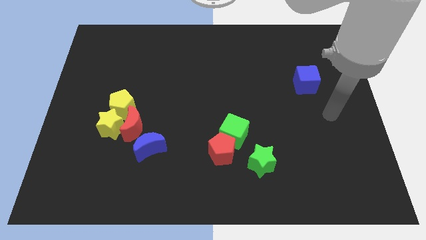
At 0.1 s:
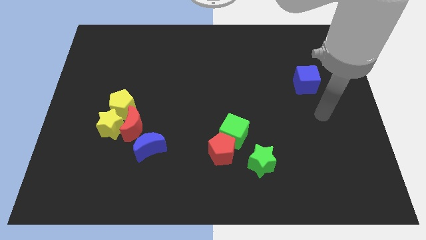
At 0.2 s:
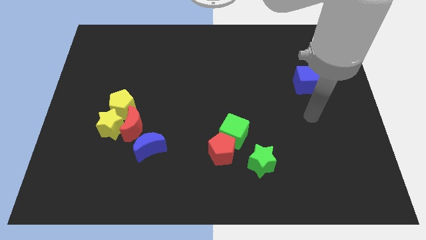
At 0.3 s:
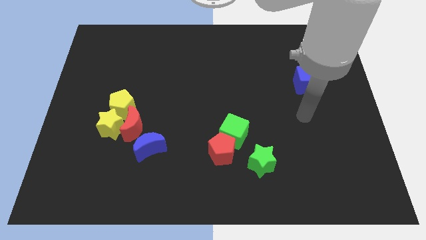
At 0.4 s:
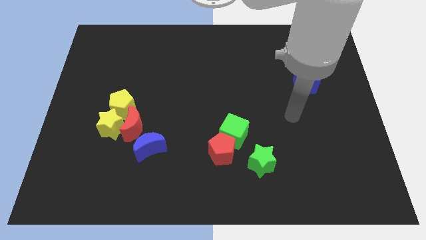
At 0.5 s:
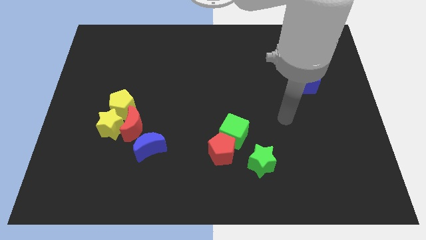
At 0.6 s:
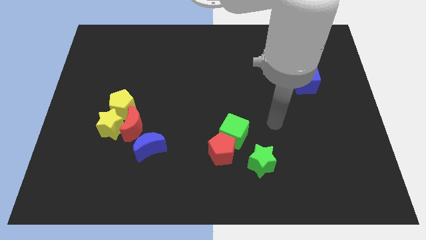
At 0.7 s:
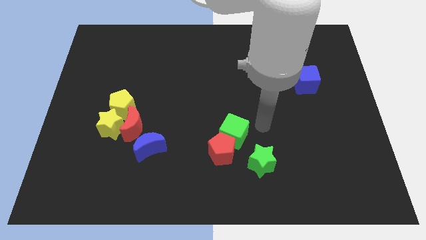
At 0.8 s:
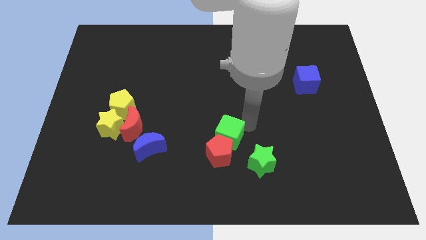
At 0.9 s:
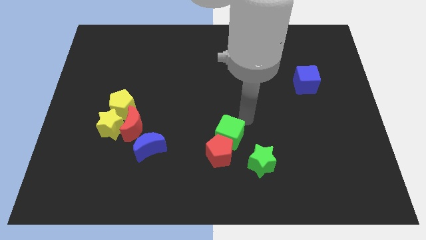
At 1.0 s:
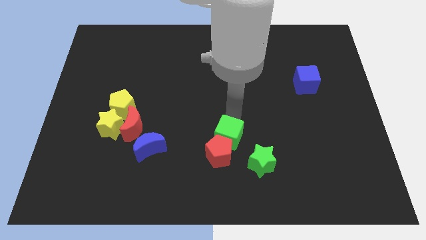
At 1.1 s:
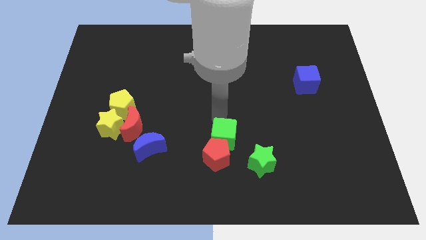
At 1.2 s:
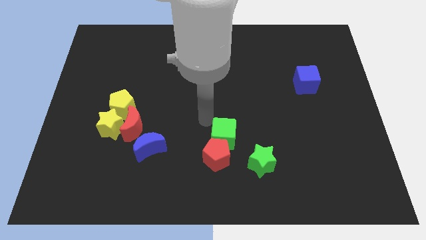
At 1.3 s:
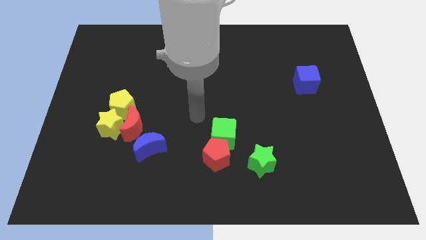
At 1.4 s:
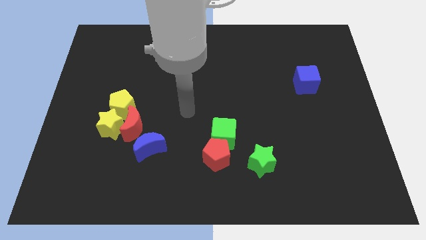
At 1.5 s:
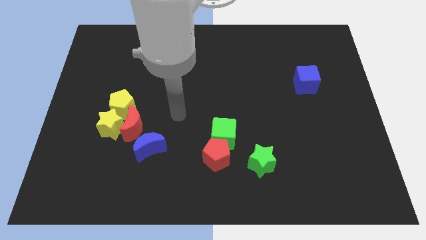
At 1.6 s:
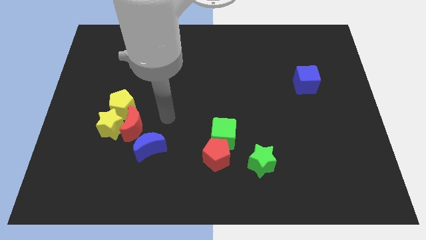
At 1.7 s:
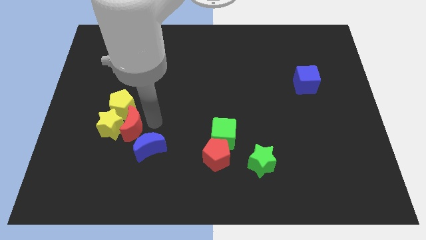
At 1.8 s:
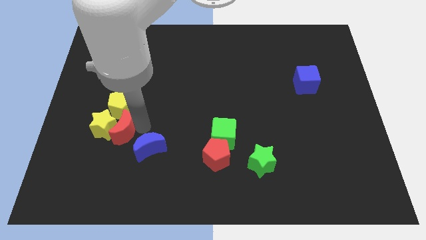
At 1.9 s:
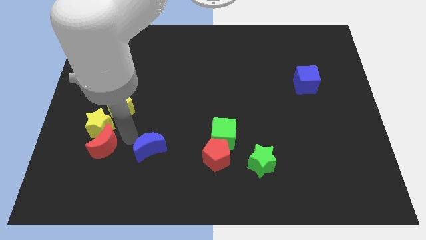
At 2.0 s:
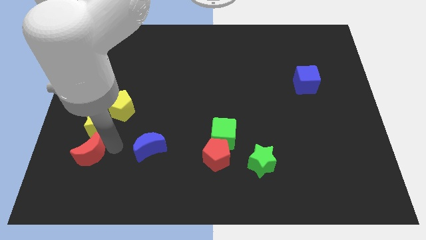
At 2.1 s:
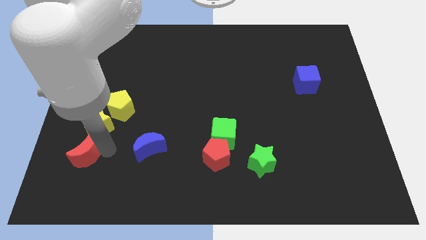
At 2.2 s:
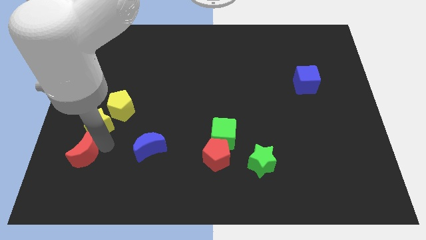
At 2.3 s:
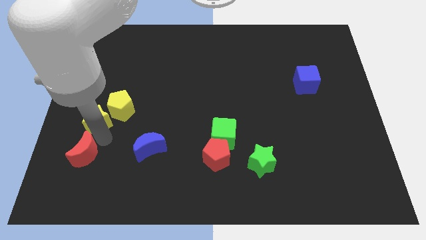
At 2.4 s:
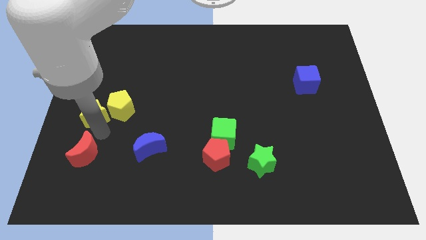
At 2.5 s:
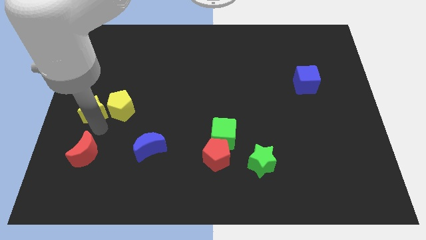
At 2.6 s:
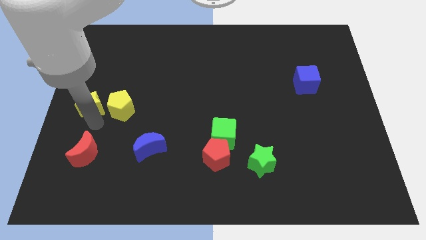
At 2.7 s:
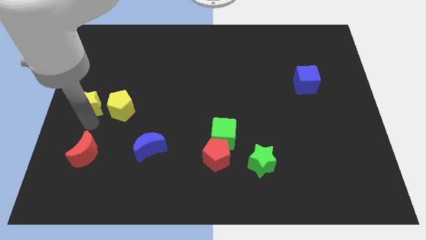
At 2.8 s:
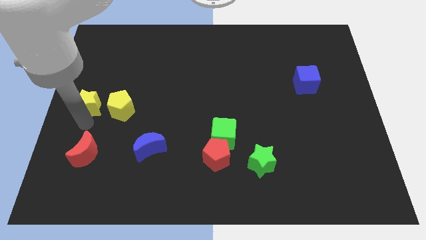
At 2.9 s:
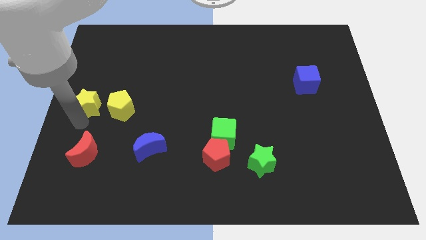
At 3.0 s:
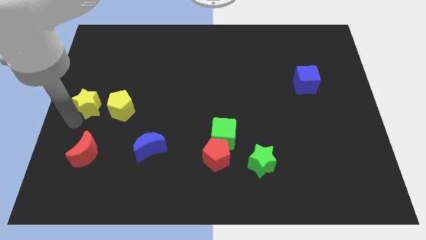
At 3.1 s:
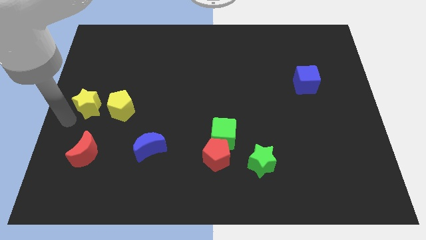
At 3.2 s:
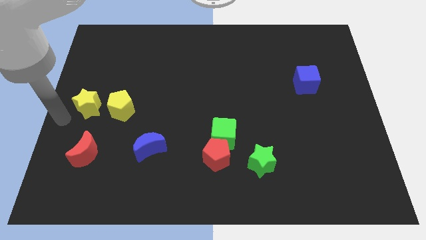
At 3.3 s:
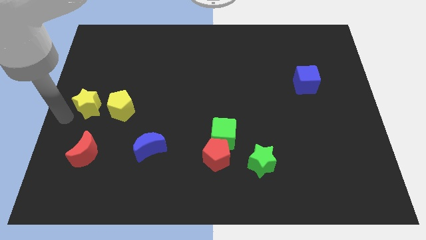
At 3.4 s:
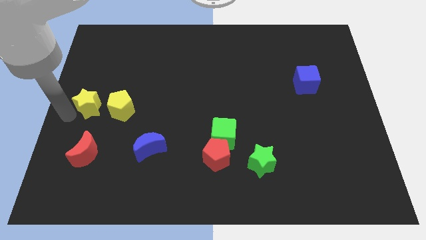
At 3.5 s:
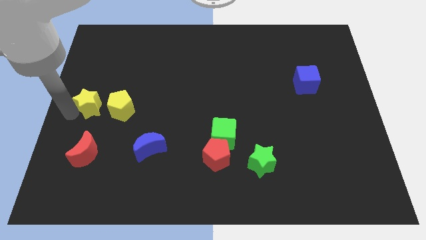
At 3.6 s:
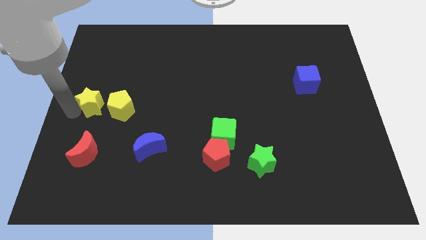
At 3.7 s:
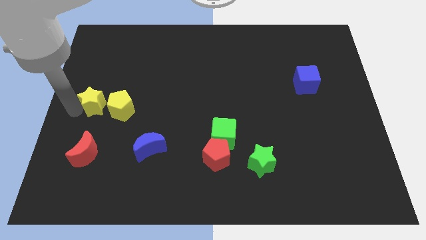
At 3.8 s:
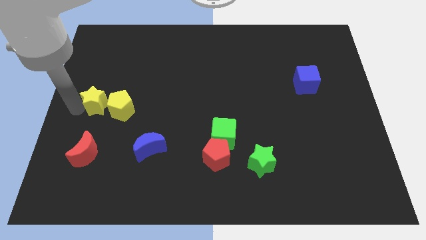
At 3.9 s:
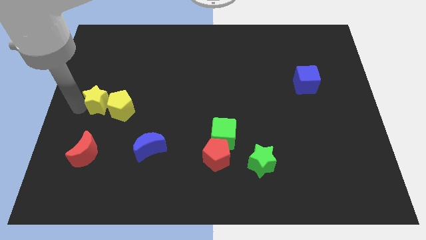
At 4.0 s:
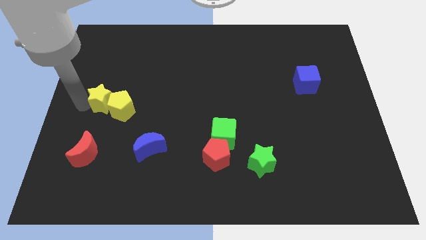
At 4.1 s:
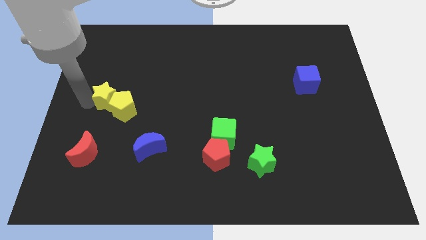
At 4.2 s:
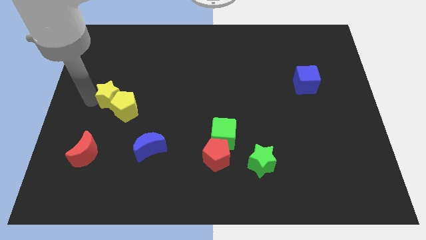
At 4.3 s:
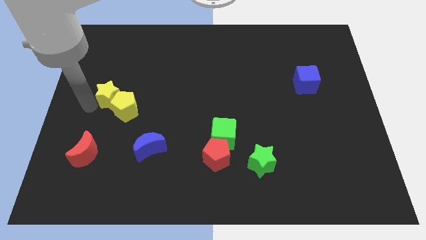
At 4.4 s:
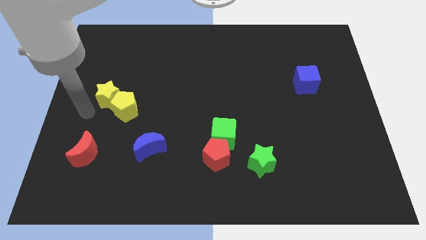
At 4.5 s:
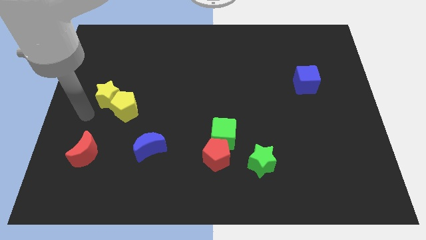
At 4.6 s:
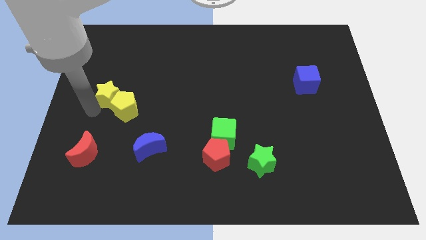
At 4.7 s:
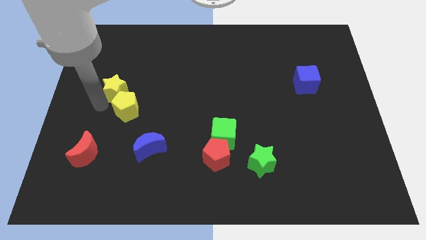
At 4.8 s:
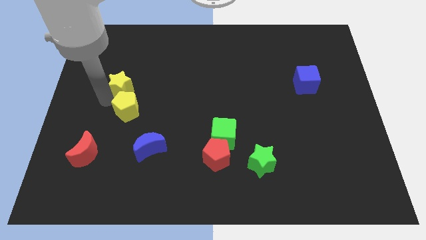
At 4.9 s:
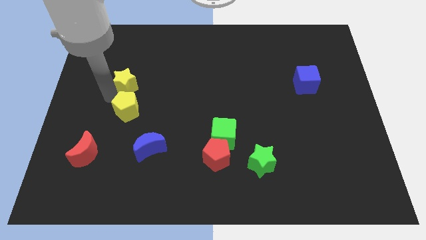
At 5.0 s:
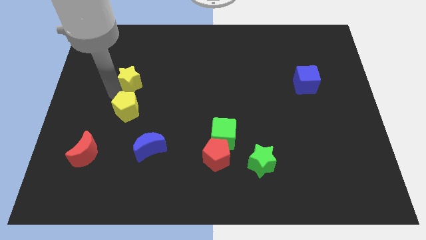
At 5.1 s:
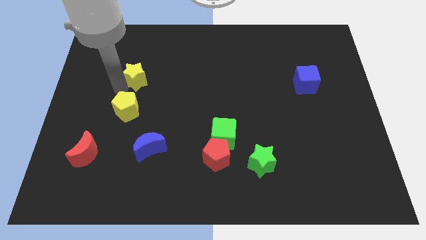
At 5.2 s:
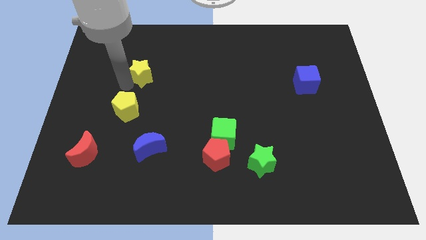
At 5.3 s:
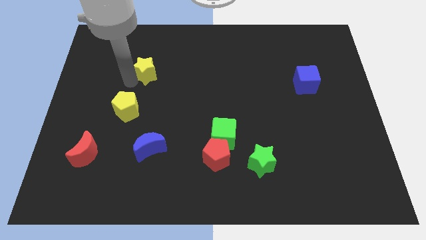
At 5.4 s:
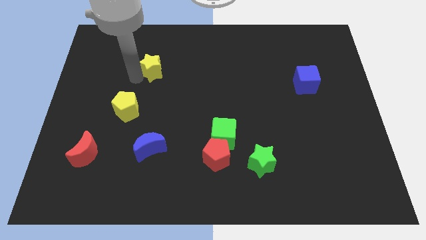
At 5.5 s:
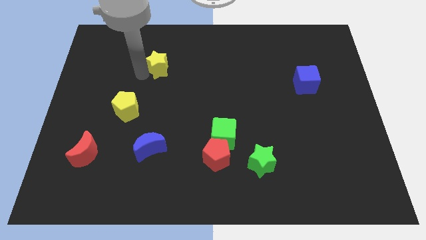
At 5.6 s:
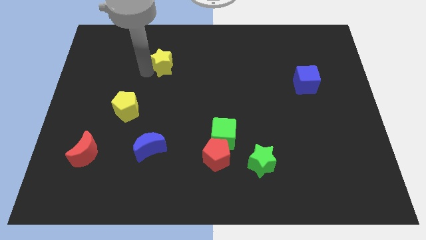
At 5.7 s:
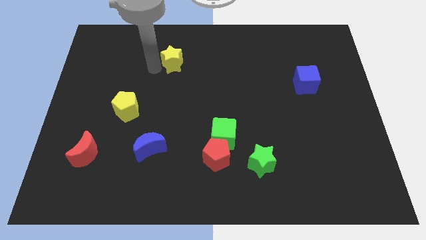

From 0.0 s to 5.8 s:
slide the yellow star upwards and then right

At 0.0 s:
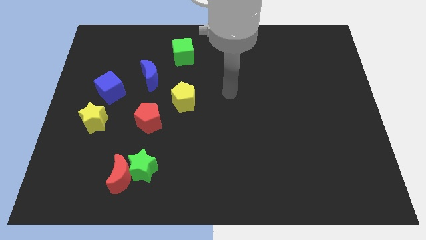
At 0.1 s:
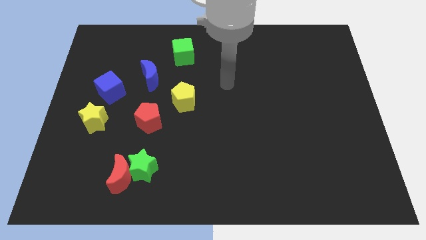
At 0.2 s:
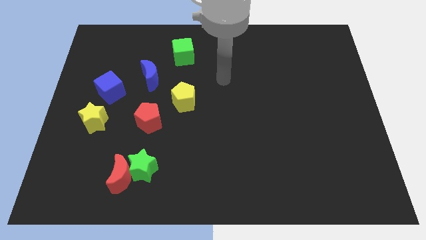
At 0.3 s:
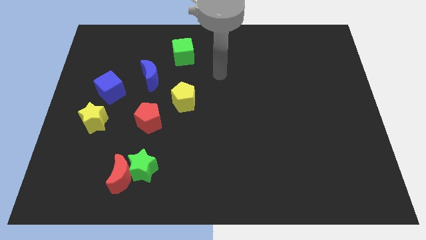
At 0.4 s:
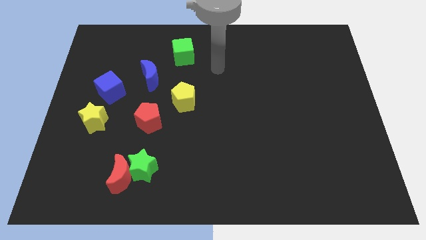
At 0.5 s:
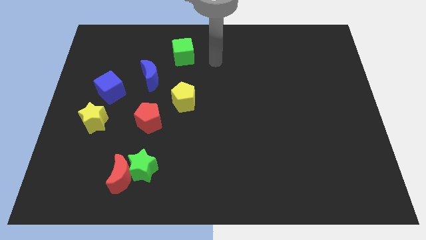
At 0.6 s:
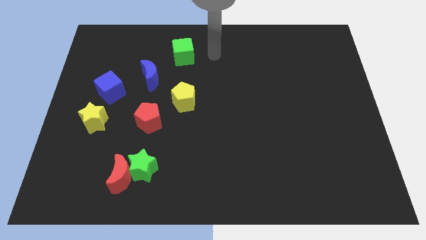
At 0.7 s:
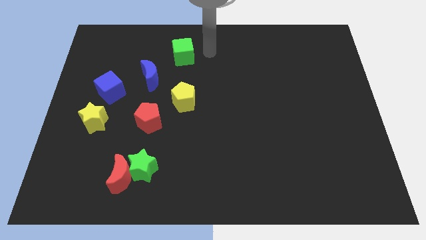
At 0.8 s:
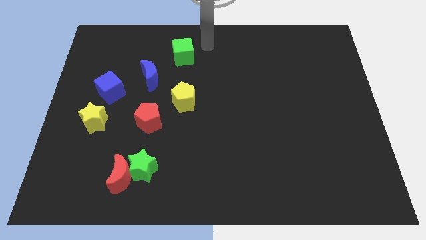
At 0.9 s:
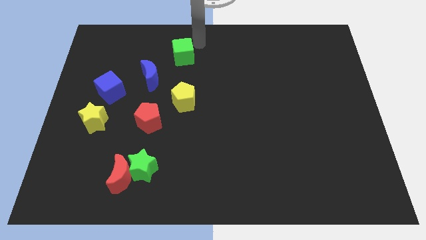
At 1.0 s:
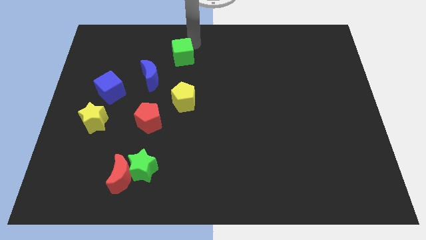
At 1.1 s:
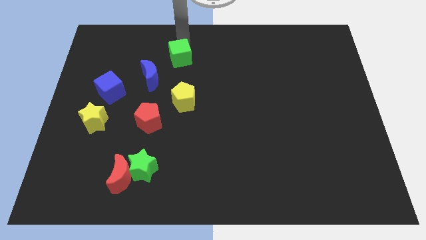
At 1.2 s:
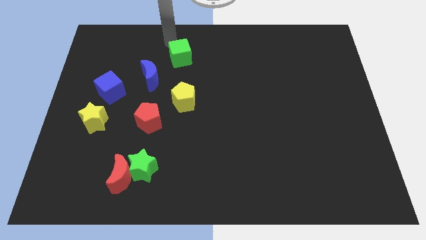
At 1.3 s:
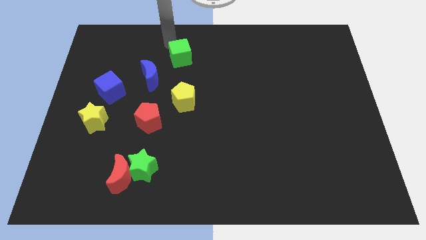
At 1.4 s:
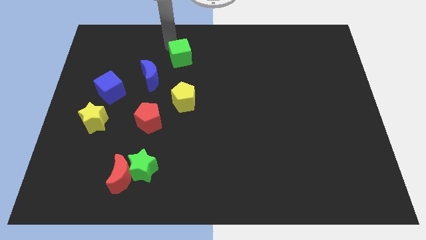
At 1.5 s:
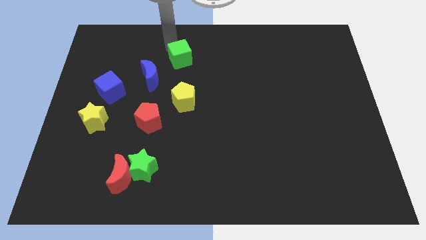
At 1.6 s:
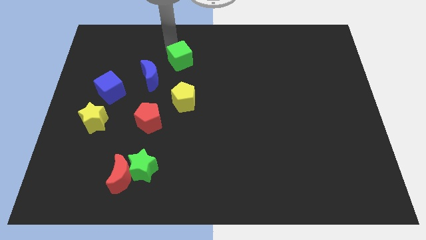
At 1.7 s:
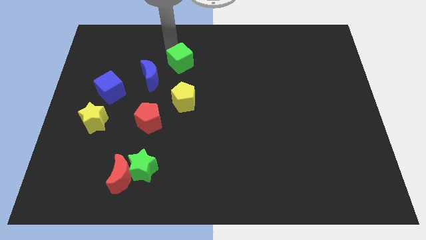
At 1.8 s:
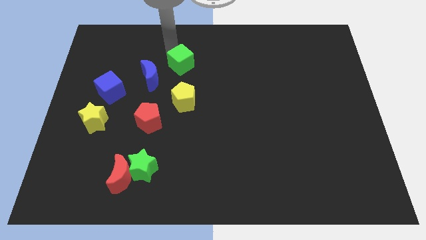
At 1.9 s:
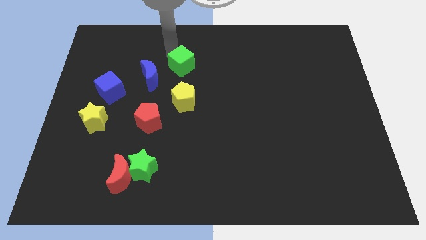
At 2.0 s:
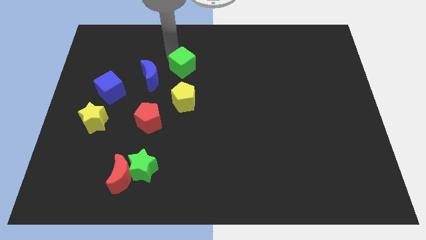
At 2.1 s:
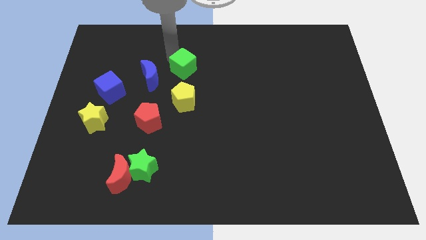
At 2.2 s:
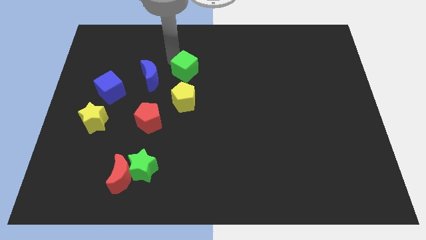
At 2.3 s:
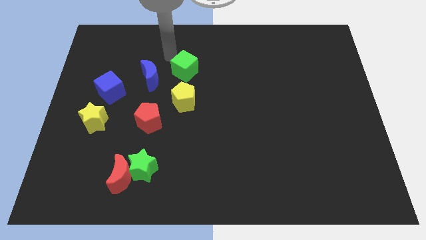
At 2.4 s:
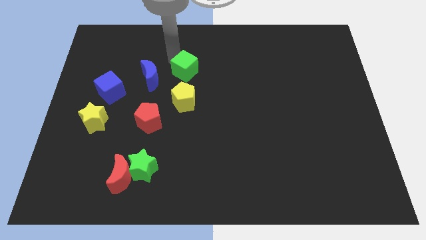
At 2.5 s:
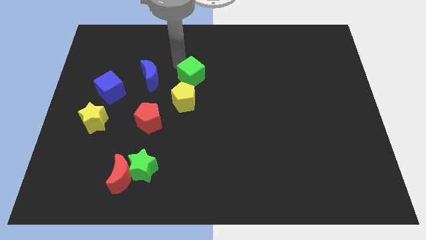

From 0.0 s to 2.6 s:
slide the green cube downwards a little
